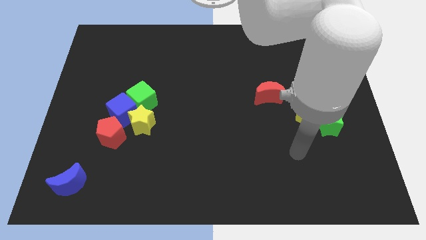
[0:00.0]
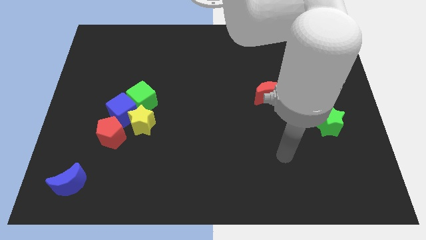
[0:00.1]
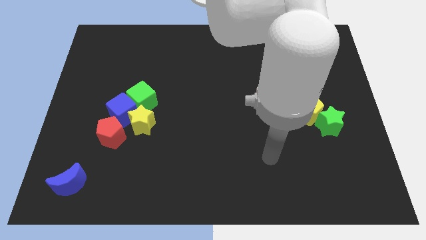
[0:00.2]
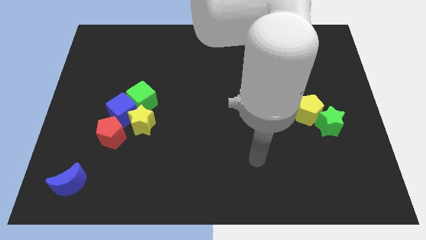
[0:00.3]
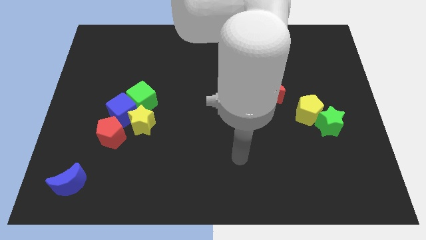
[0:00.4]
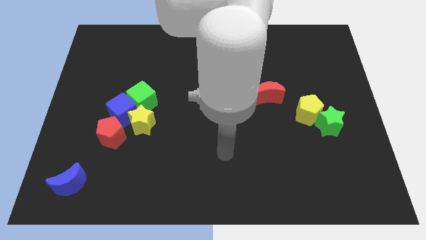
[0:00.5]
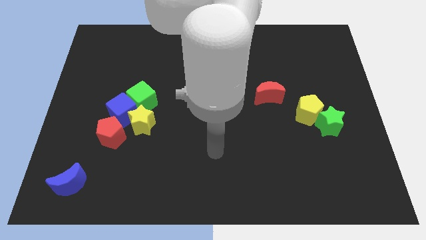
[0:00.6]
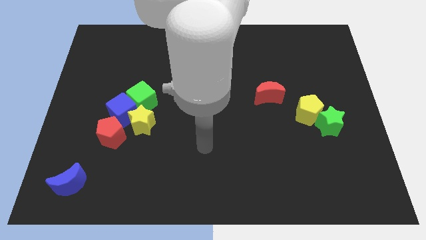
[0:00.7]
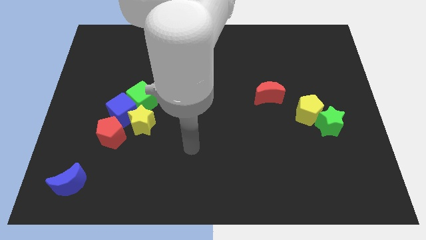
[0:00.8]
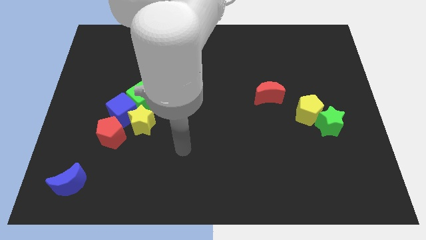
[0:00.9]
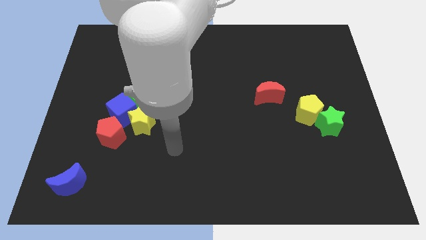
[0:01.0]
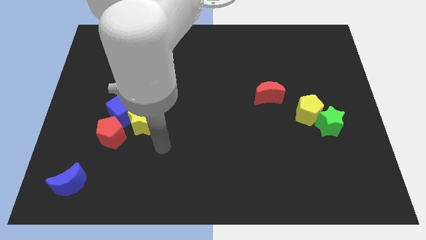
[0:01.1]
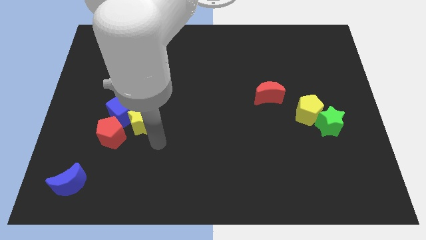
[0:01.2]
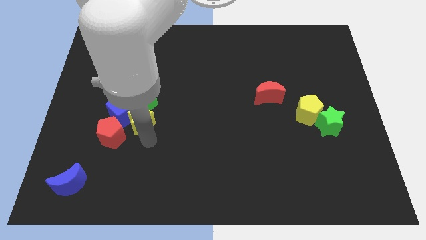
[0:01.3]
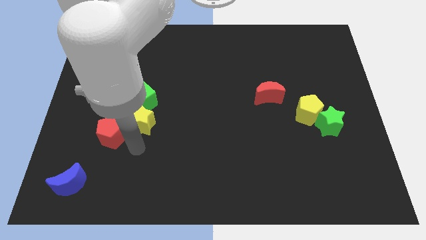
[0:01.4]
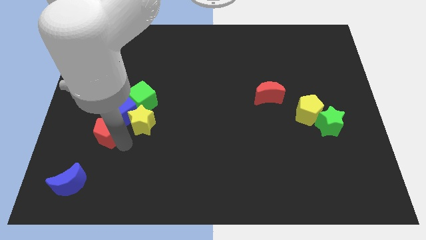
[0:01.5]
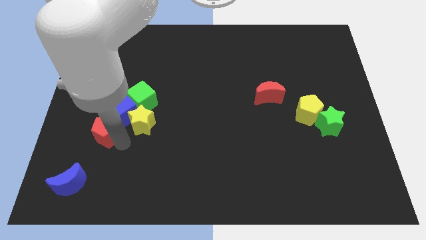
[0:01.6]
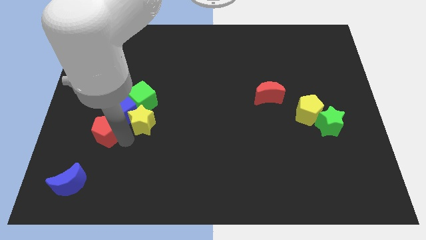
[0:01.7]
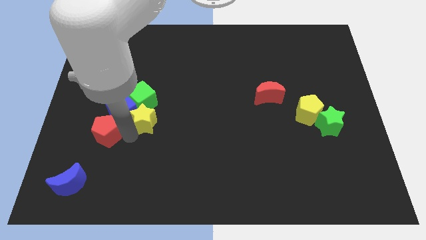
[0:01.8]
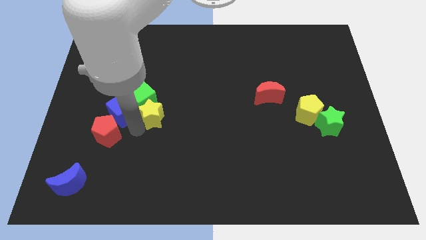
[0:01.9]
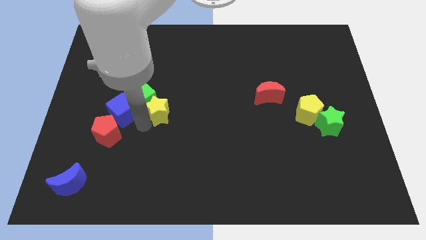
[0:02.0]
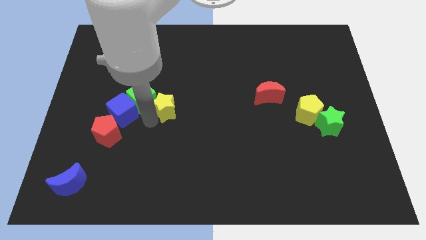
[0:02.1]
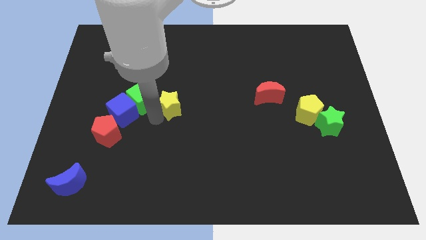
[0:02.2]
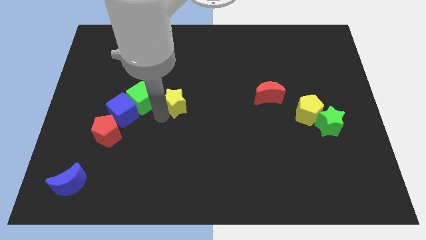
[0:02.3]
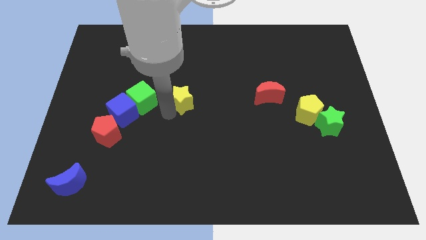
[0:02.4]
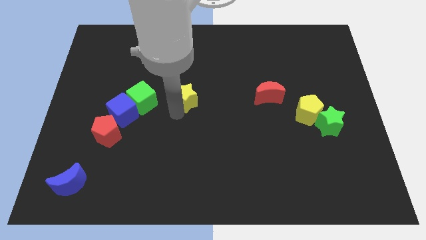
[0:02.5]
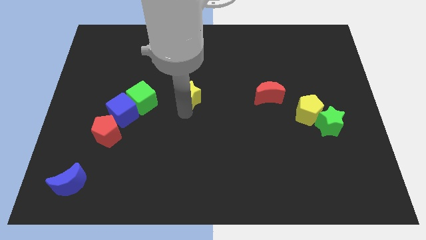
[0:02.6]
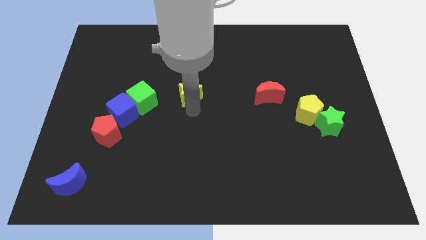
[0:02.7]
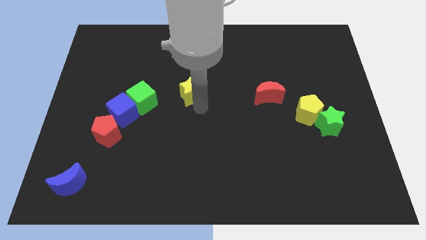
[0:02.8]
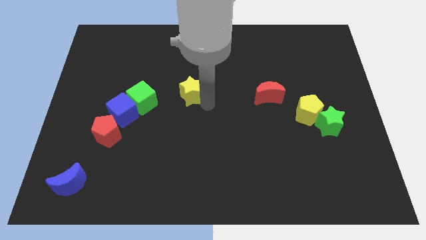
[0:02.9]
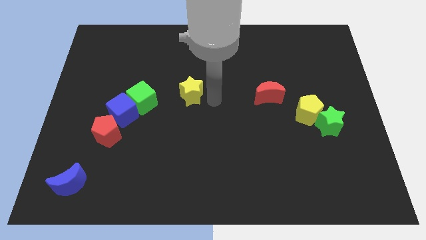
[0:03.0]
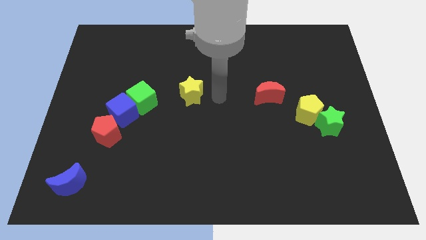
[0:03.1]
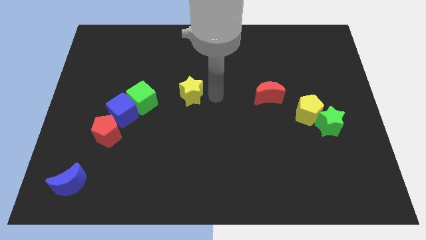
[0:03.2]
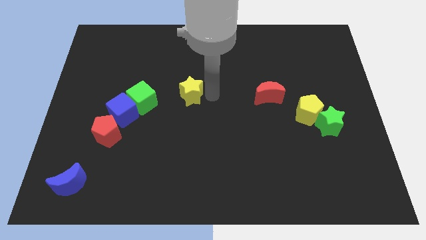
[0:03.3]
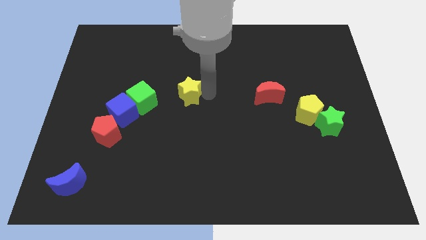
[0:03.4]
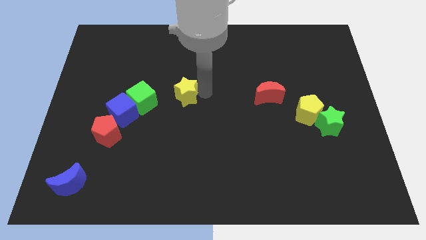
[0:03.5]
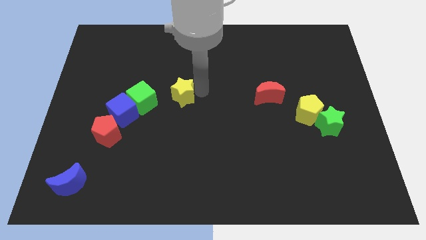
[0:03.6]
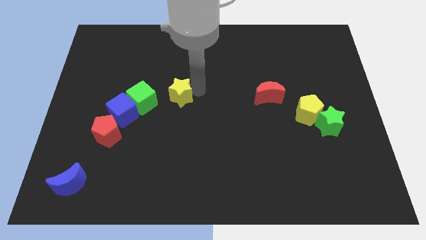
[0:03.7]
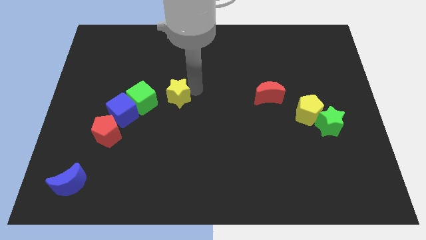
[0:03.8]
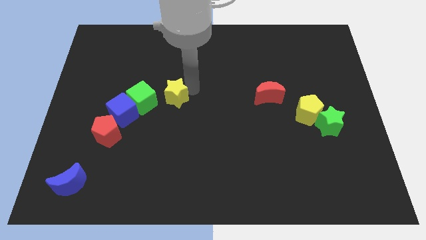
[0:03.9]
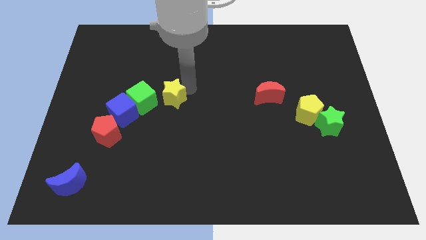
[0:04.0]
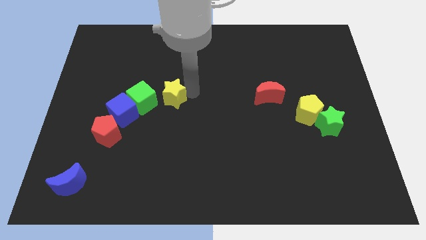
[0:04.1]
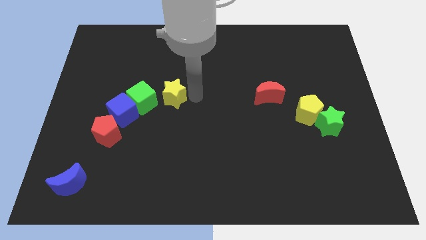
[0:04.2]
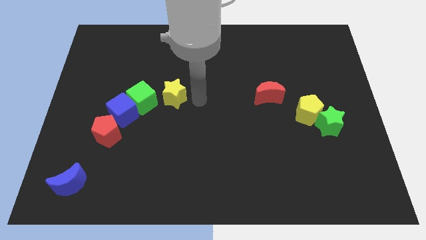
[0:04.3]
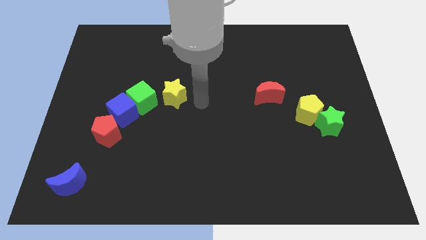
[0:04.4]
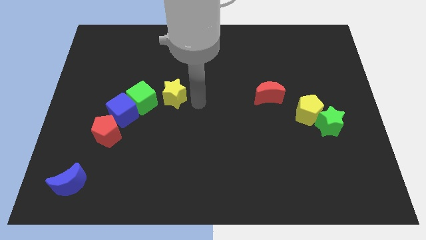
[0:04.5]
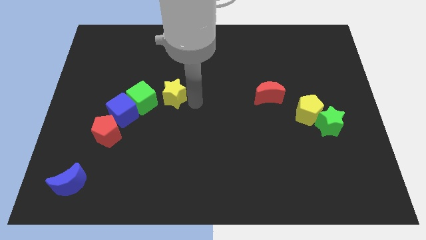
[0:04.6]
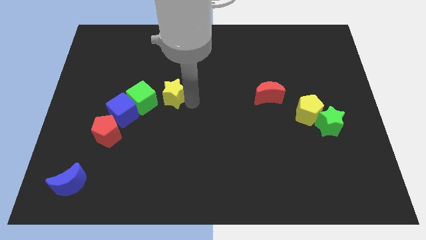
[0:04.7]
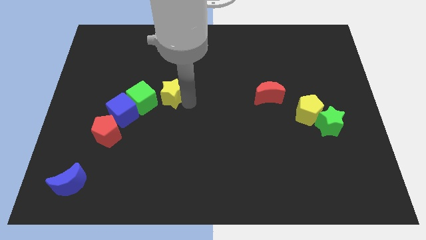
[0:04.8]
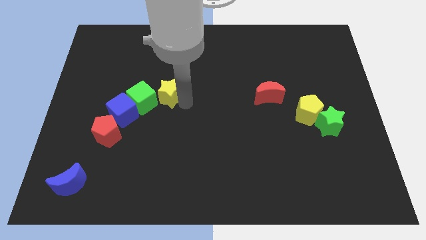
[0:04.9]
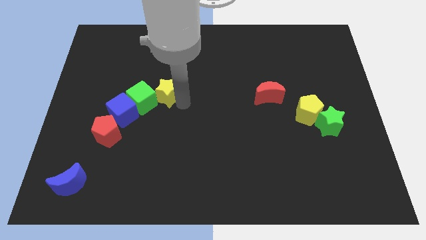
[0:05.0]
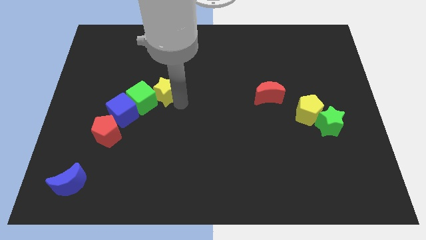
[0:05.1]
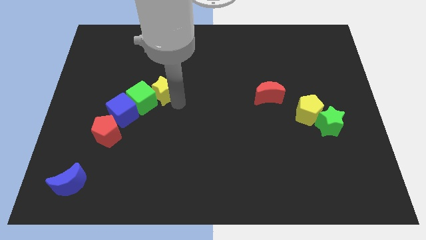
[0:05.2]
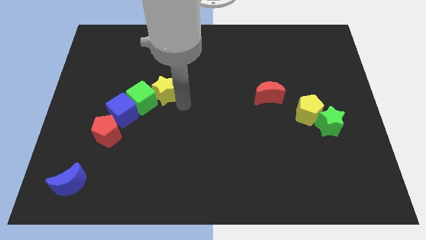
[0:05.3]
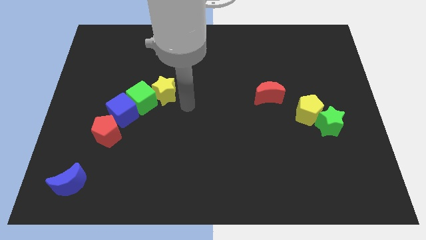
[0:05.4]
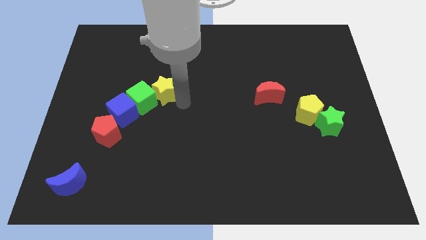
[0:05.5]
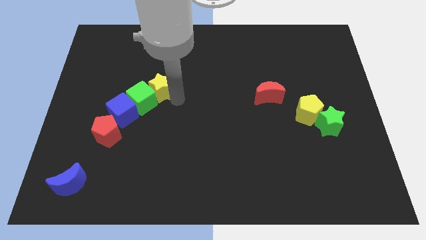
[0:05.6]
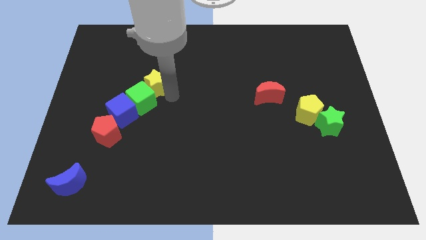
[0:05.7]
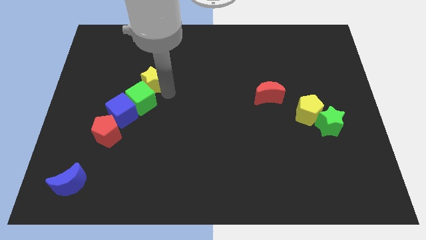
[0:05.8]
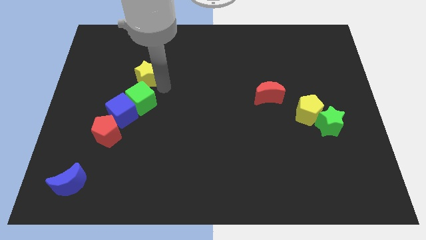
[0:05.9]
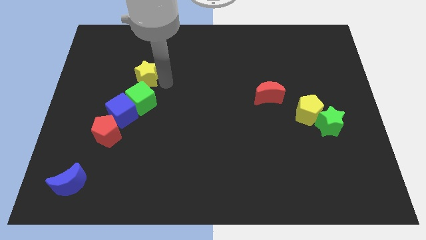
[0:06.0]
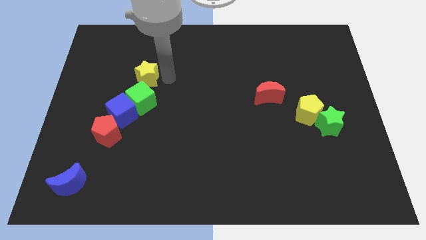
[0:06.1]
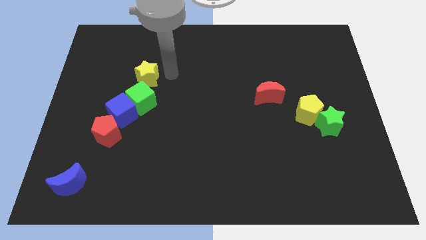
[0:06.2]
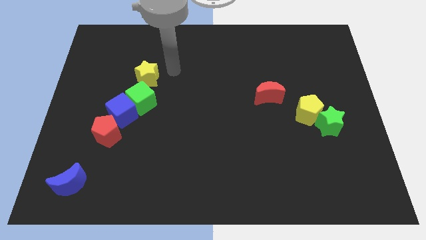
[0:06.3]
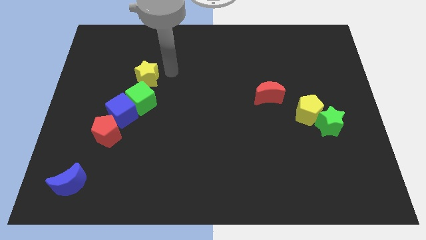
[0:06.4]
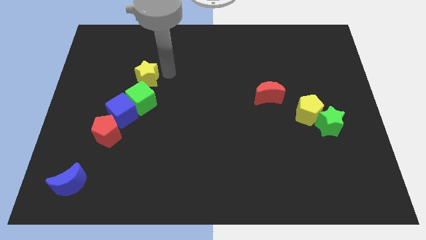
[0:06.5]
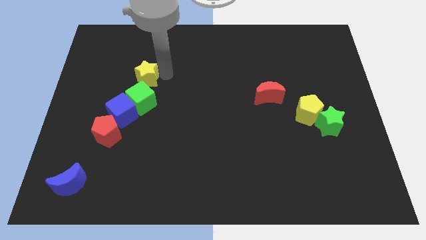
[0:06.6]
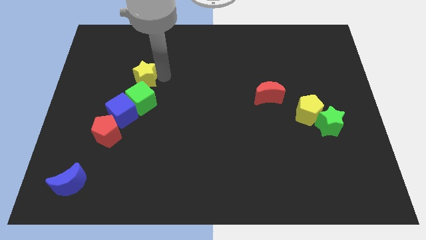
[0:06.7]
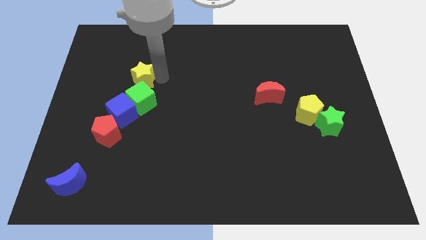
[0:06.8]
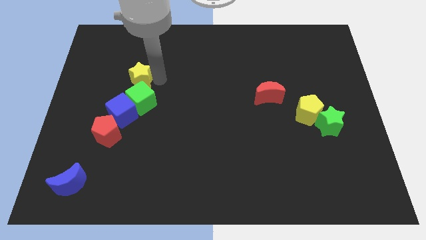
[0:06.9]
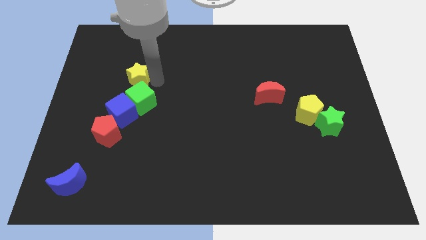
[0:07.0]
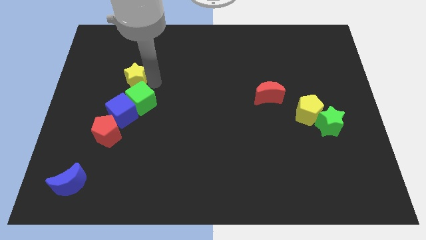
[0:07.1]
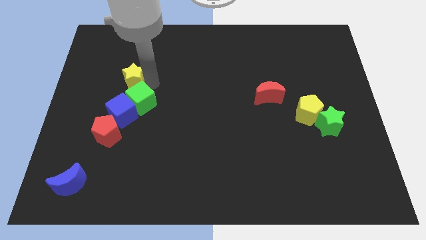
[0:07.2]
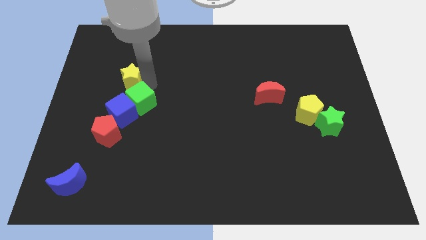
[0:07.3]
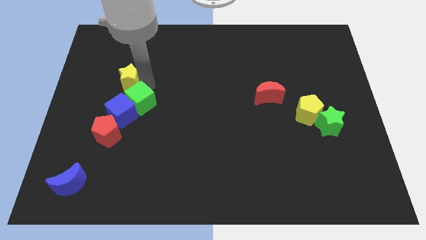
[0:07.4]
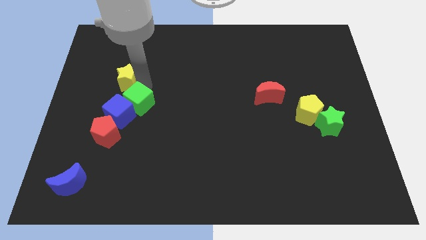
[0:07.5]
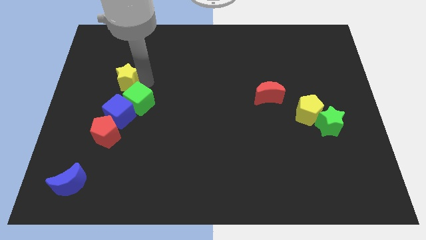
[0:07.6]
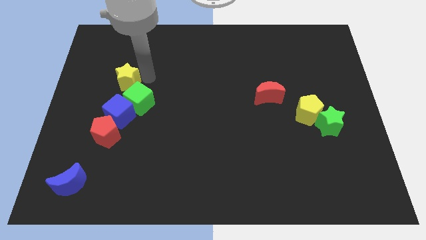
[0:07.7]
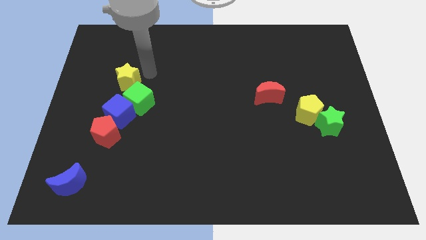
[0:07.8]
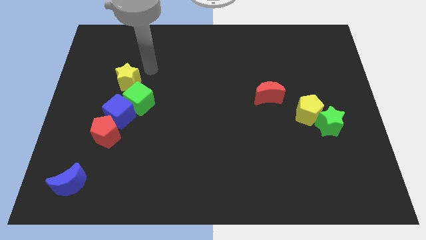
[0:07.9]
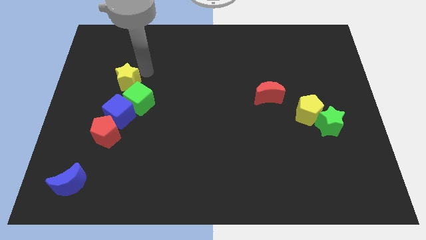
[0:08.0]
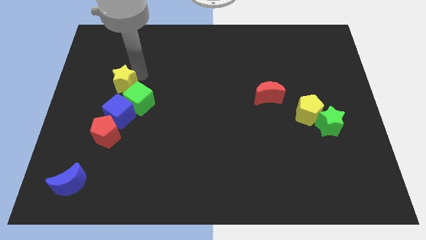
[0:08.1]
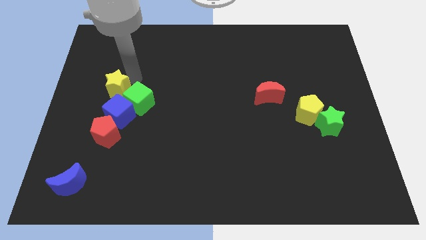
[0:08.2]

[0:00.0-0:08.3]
push the yellow star diagonally up and to the left of the blue cube
